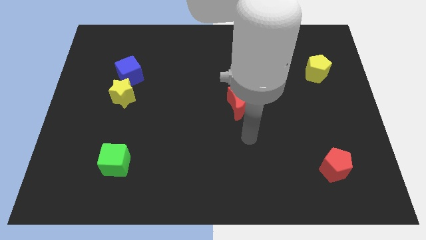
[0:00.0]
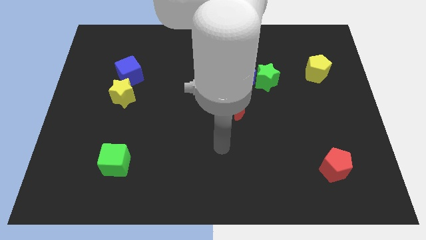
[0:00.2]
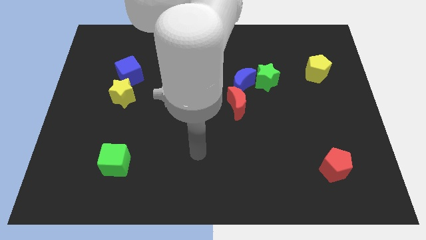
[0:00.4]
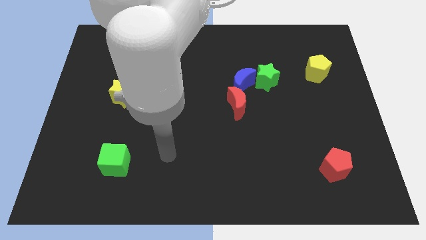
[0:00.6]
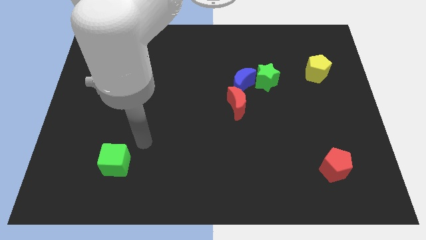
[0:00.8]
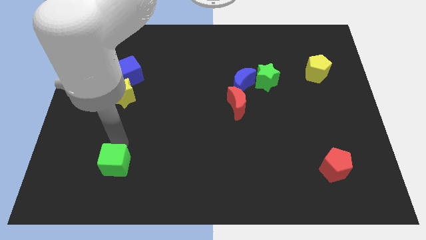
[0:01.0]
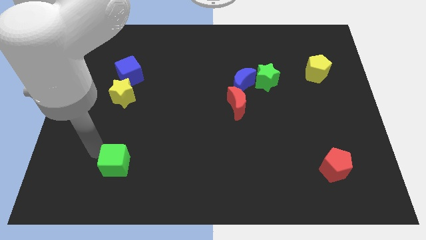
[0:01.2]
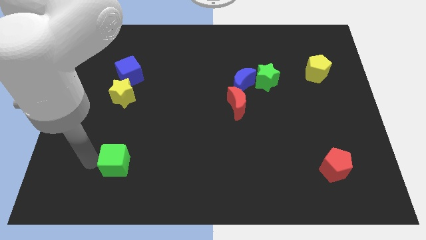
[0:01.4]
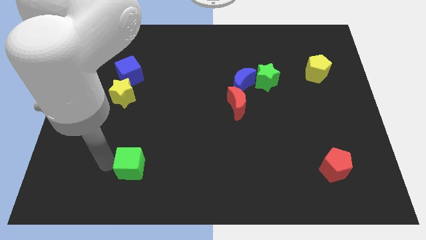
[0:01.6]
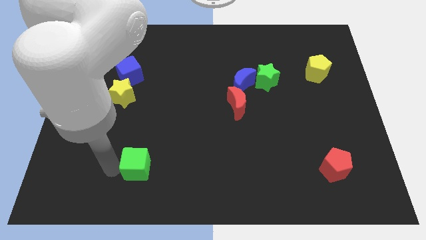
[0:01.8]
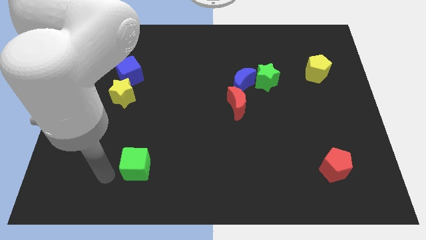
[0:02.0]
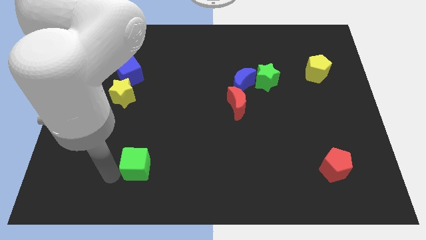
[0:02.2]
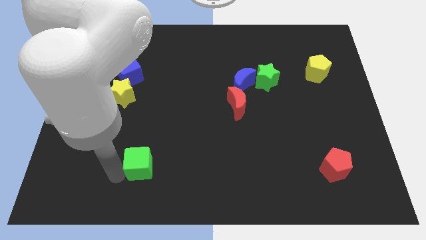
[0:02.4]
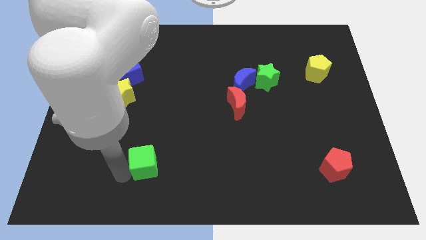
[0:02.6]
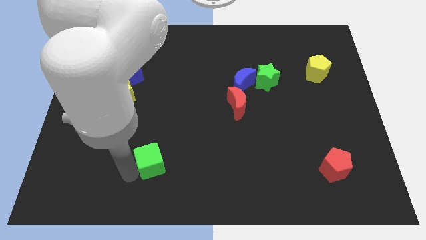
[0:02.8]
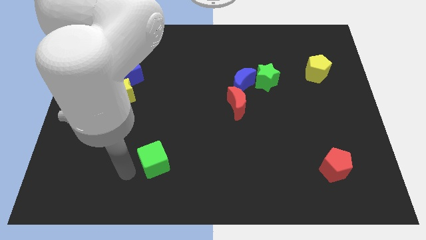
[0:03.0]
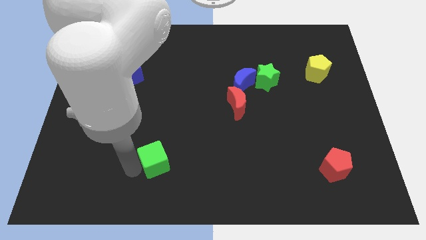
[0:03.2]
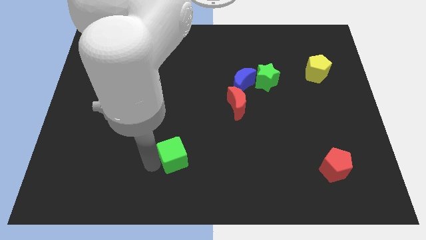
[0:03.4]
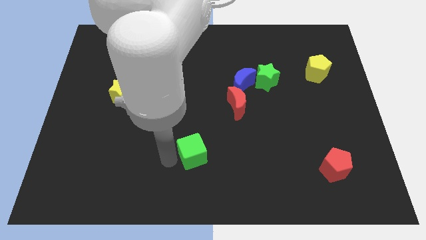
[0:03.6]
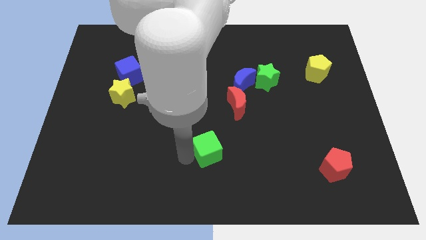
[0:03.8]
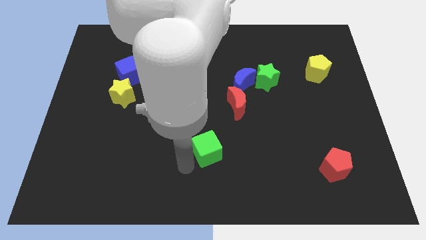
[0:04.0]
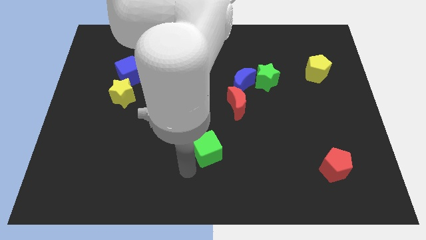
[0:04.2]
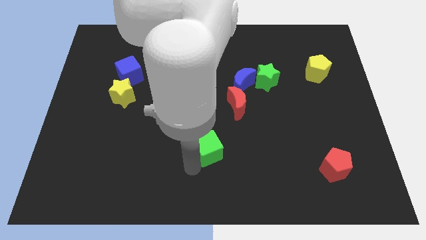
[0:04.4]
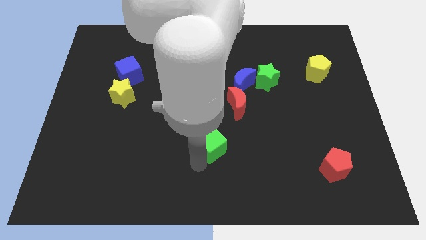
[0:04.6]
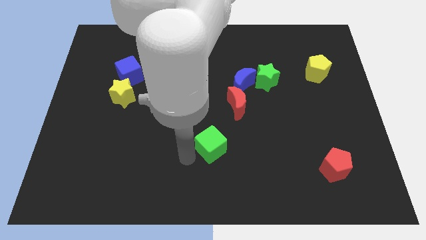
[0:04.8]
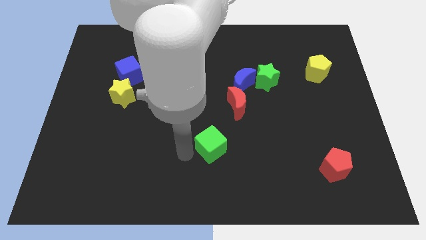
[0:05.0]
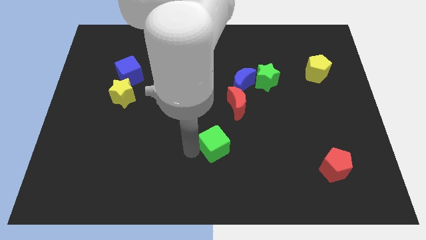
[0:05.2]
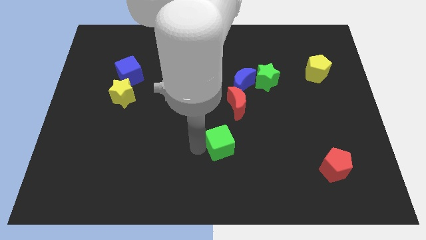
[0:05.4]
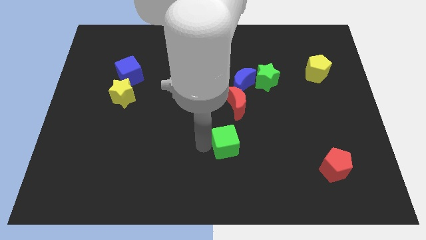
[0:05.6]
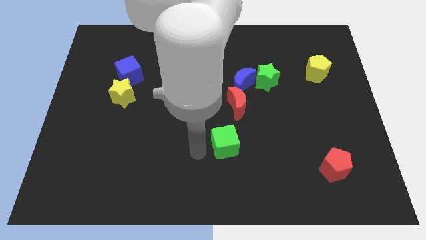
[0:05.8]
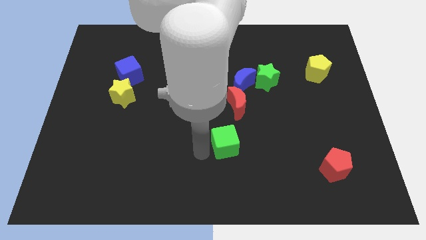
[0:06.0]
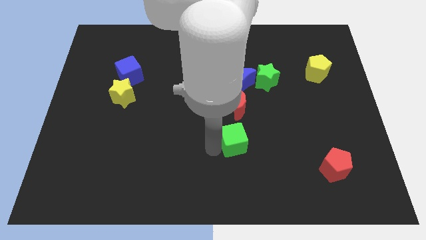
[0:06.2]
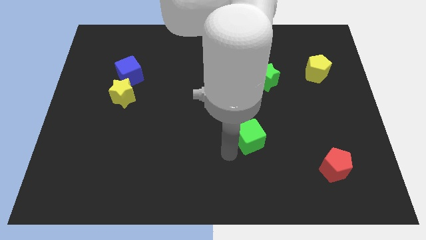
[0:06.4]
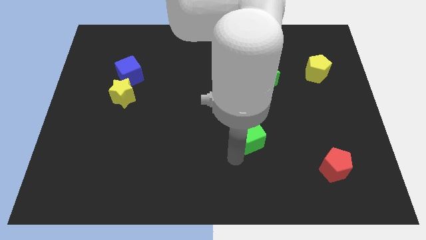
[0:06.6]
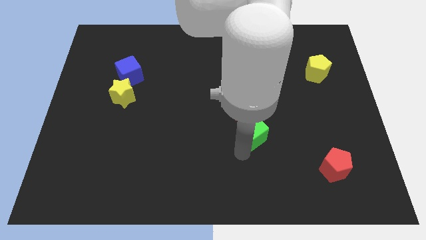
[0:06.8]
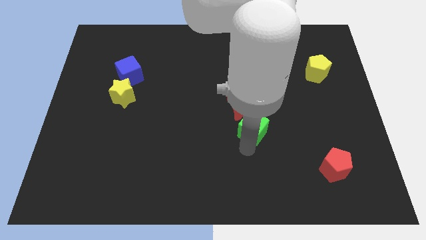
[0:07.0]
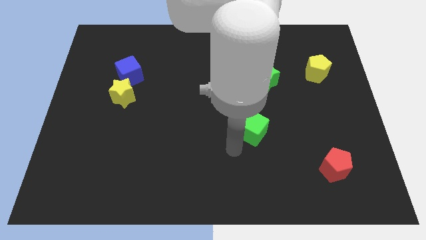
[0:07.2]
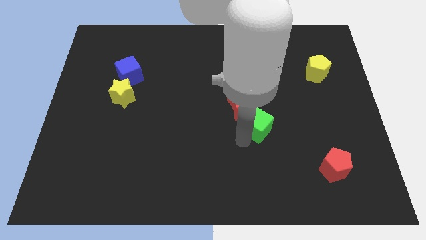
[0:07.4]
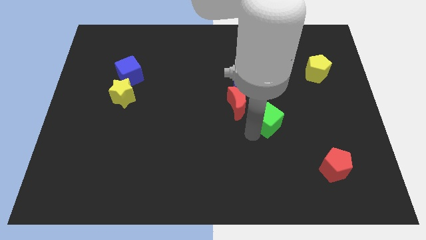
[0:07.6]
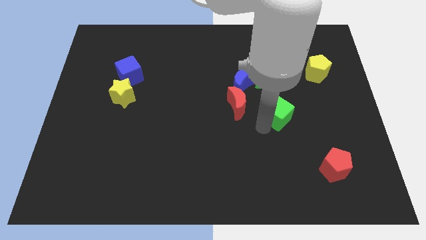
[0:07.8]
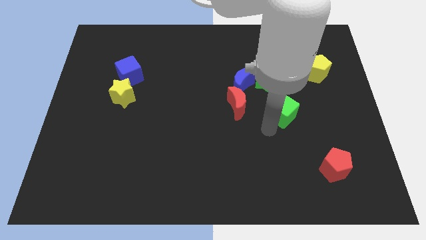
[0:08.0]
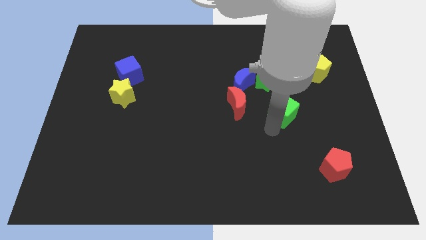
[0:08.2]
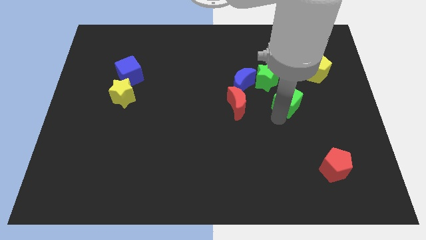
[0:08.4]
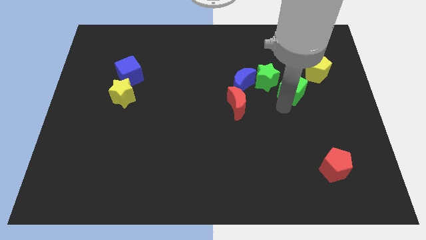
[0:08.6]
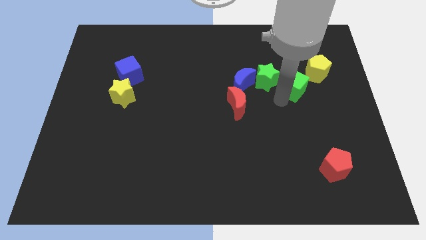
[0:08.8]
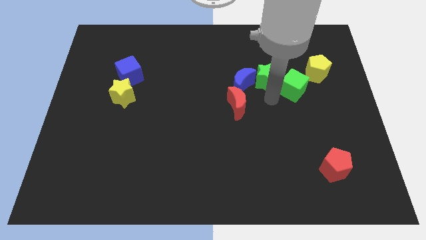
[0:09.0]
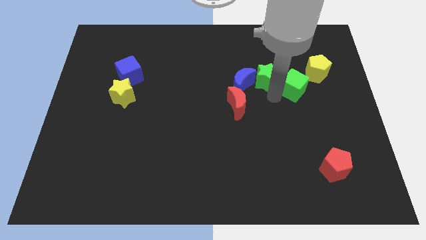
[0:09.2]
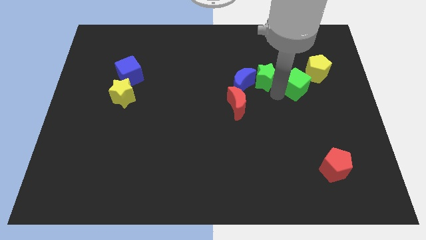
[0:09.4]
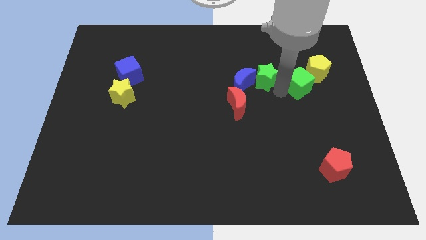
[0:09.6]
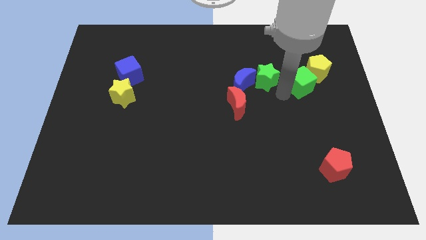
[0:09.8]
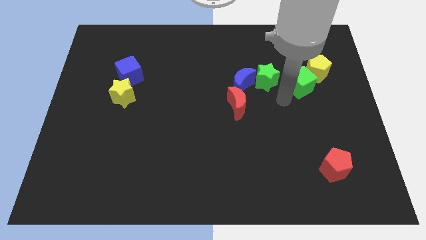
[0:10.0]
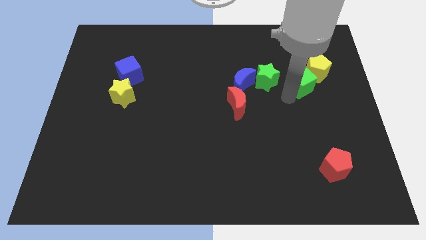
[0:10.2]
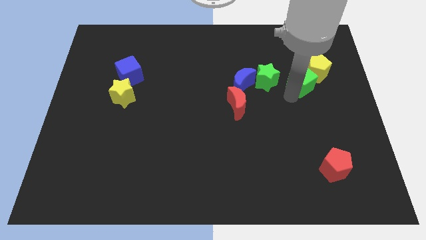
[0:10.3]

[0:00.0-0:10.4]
move the green cube close to the yellow pentagon

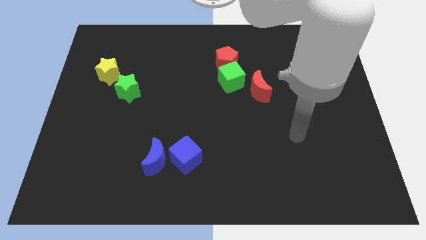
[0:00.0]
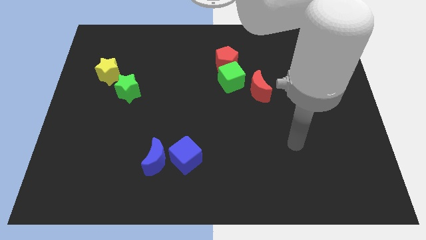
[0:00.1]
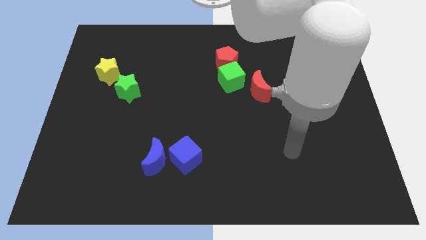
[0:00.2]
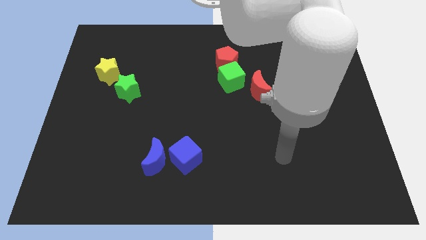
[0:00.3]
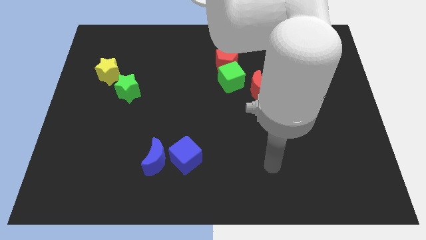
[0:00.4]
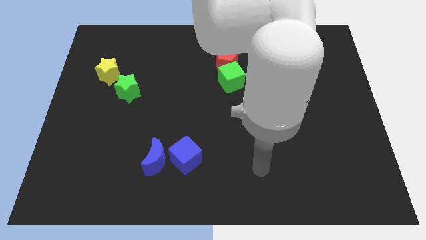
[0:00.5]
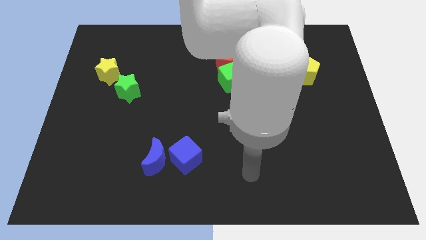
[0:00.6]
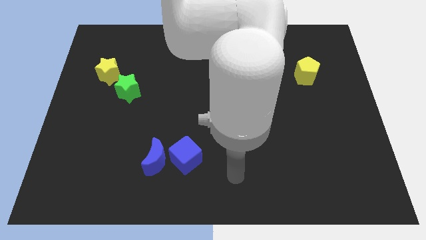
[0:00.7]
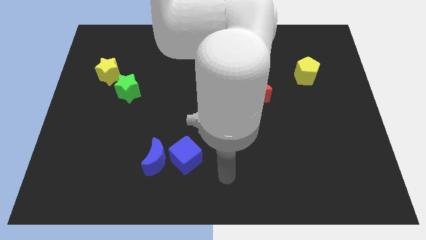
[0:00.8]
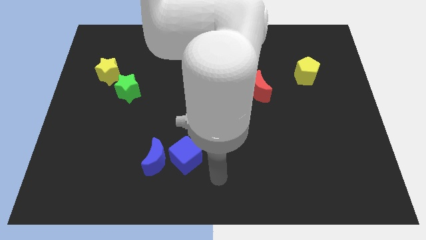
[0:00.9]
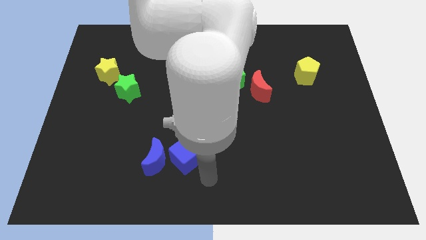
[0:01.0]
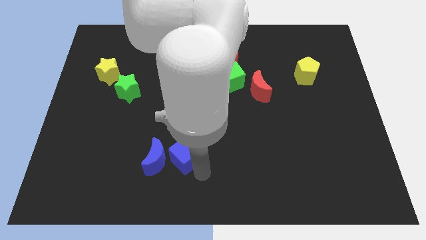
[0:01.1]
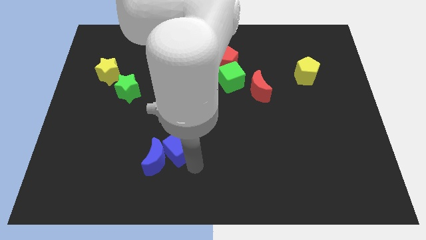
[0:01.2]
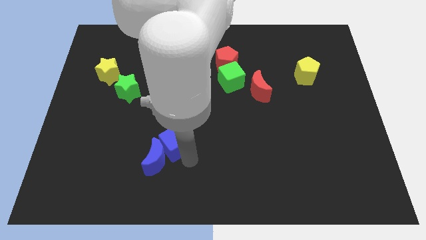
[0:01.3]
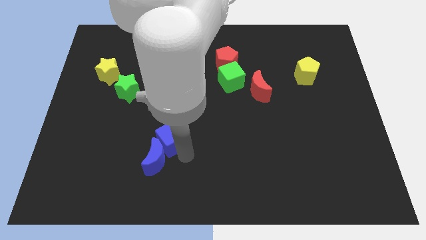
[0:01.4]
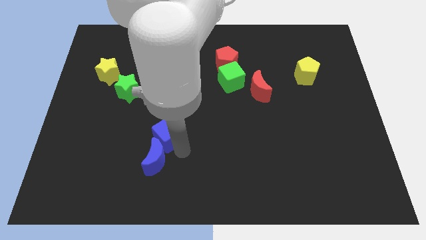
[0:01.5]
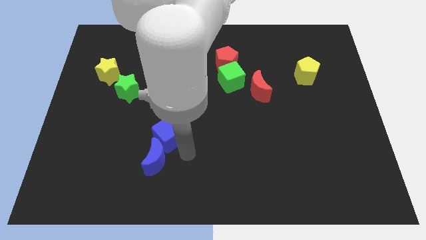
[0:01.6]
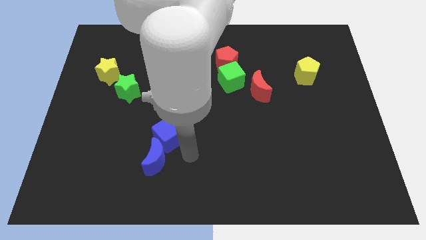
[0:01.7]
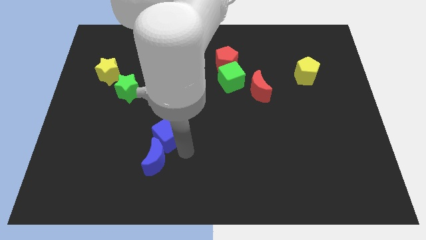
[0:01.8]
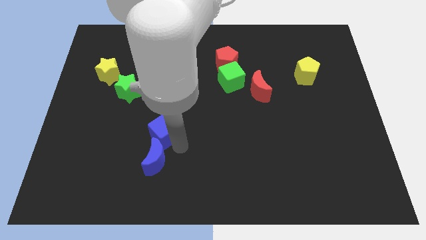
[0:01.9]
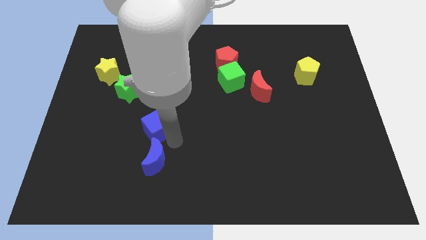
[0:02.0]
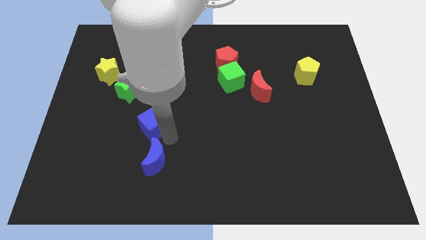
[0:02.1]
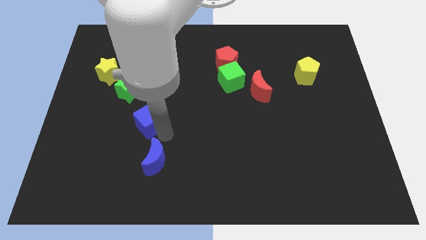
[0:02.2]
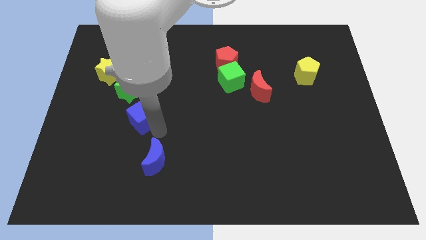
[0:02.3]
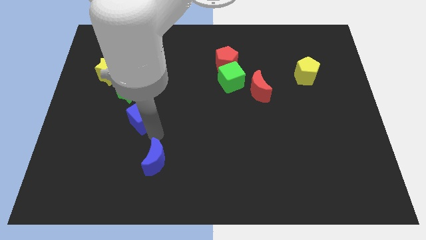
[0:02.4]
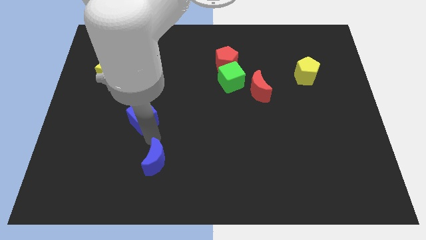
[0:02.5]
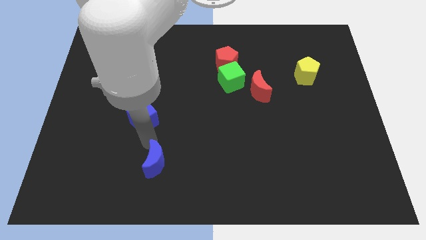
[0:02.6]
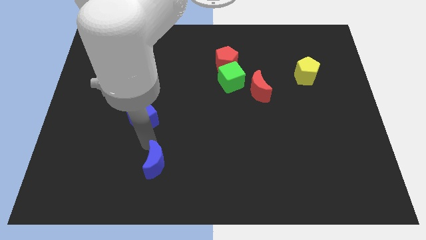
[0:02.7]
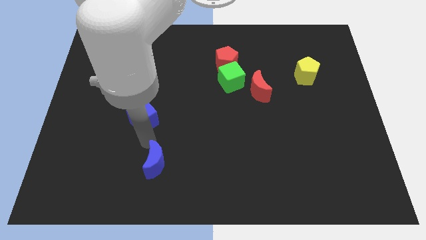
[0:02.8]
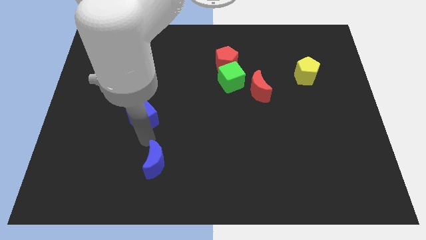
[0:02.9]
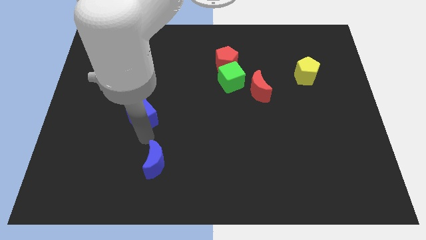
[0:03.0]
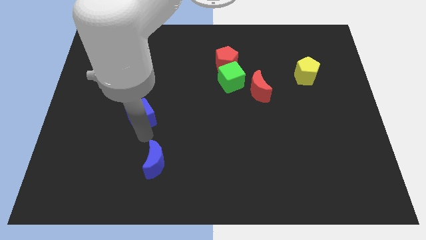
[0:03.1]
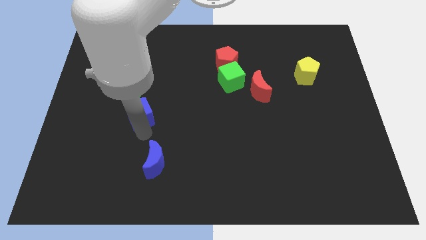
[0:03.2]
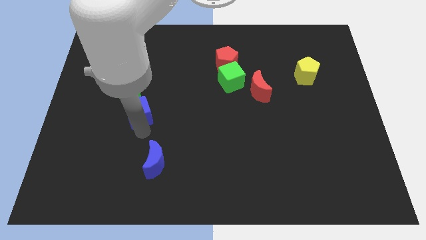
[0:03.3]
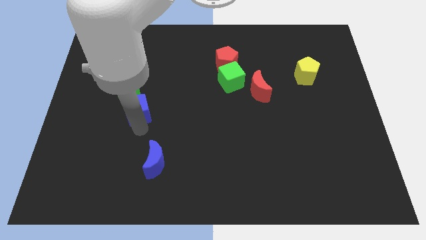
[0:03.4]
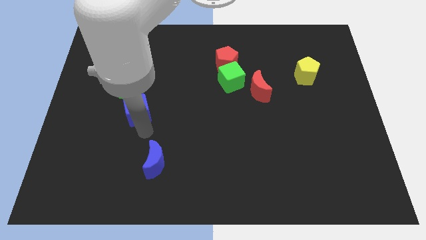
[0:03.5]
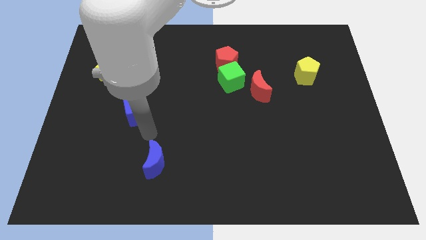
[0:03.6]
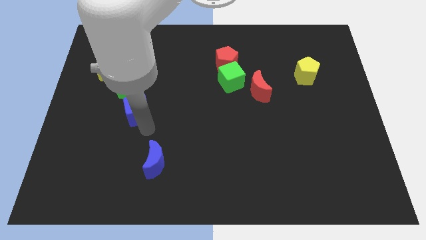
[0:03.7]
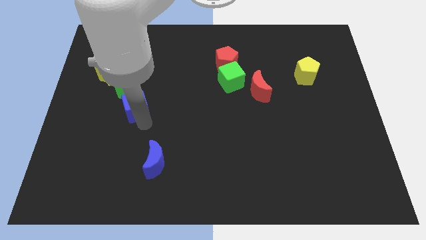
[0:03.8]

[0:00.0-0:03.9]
put the blue cube close to the green star
